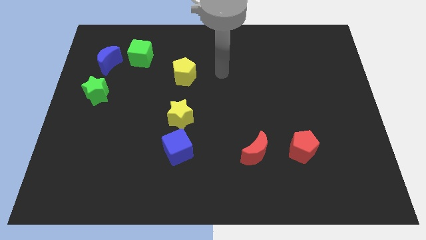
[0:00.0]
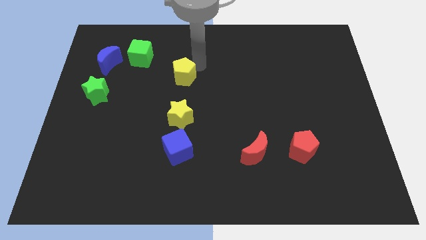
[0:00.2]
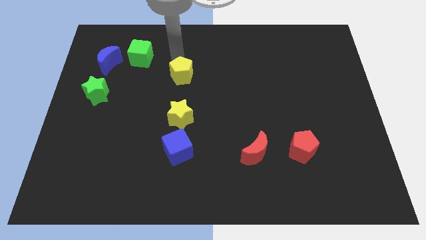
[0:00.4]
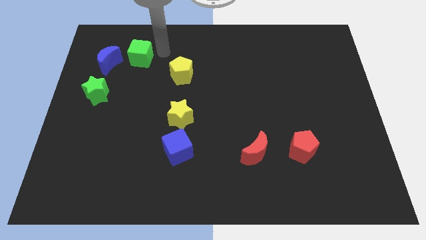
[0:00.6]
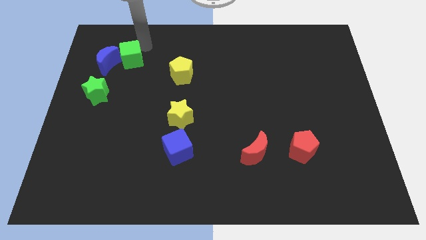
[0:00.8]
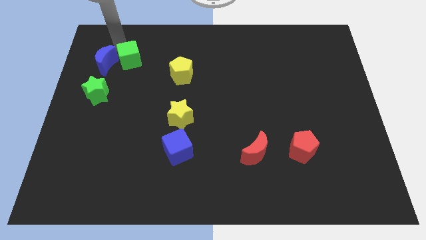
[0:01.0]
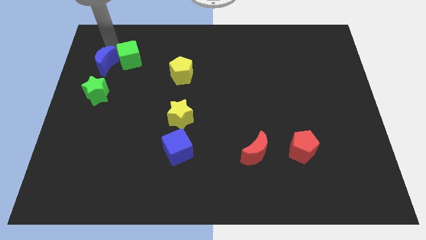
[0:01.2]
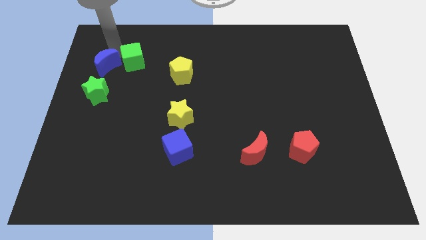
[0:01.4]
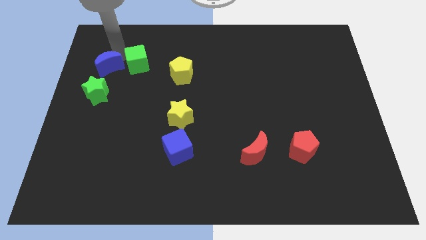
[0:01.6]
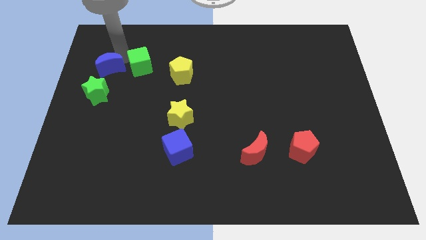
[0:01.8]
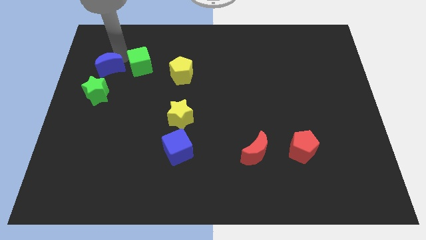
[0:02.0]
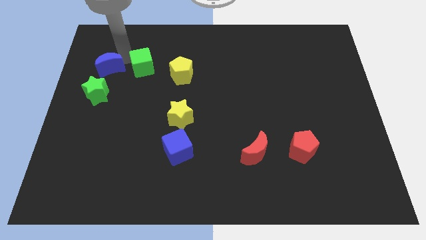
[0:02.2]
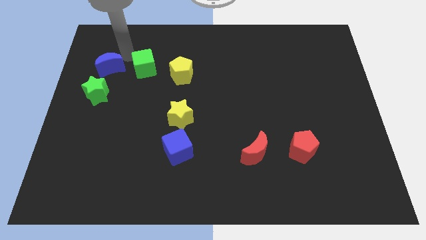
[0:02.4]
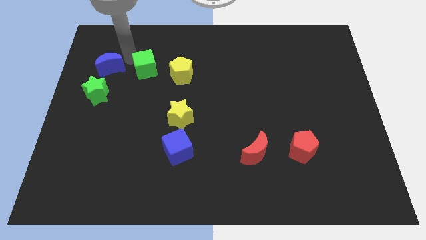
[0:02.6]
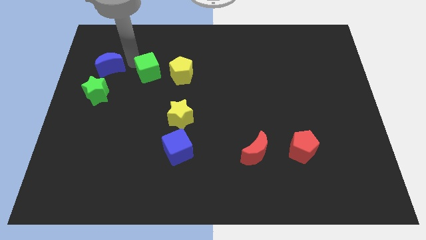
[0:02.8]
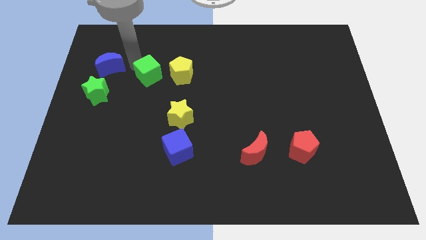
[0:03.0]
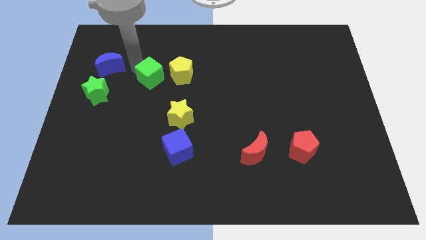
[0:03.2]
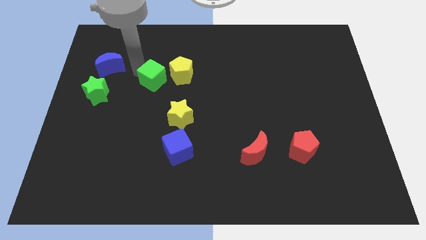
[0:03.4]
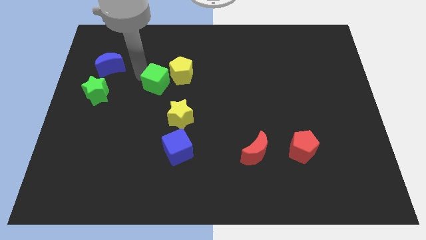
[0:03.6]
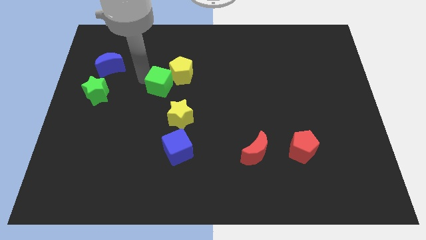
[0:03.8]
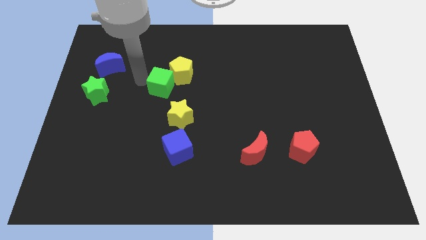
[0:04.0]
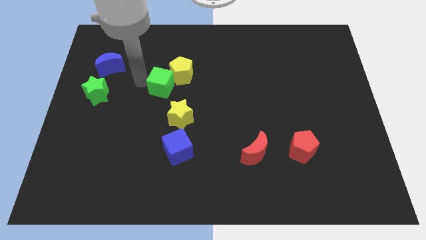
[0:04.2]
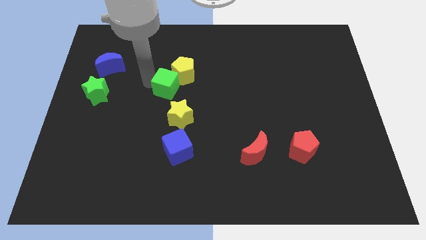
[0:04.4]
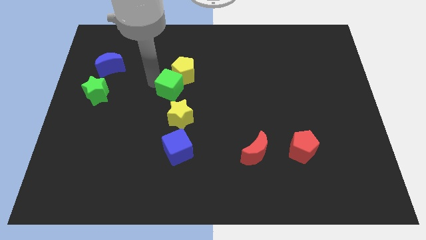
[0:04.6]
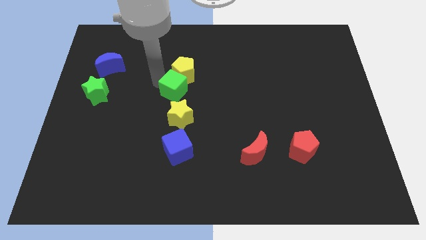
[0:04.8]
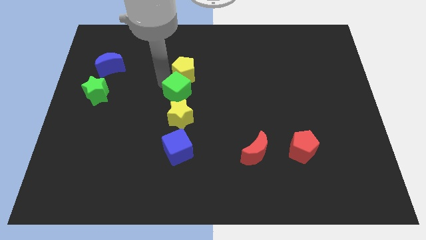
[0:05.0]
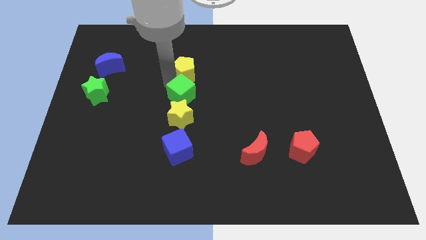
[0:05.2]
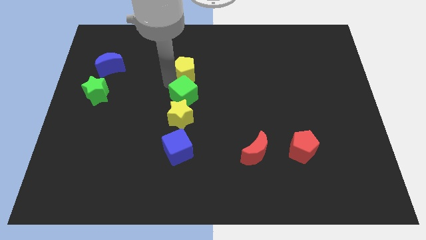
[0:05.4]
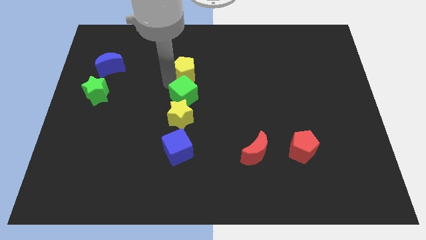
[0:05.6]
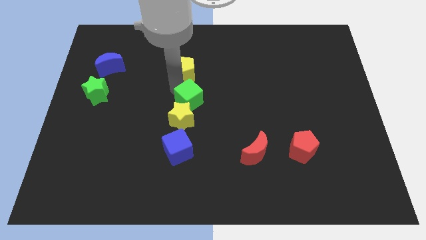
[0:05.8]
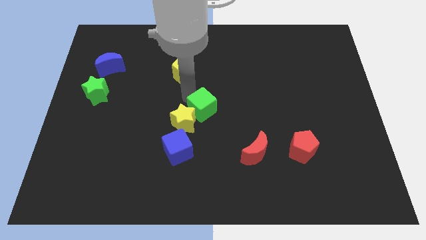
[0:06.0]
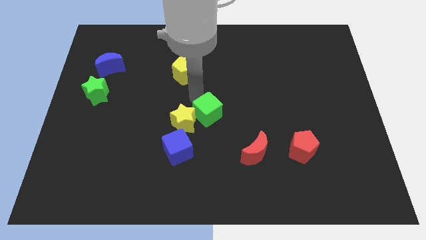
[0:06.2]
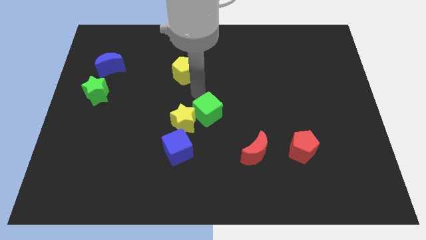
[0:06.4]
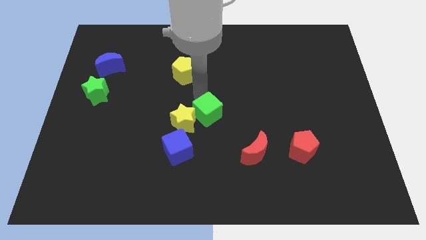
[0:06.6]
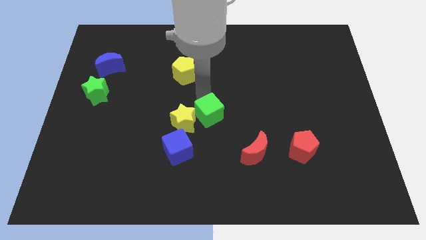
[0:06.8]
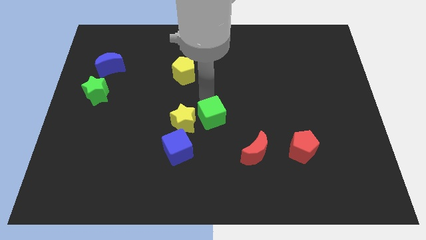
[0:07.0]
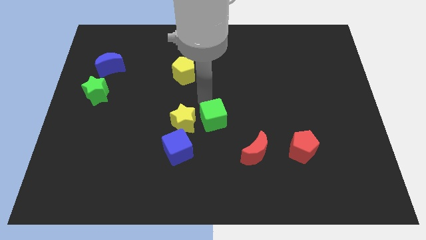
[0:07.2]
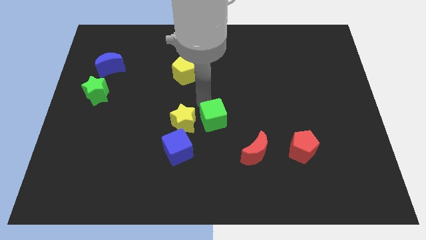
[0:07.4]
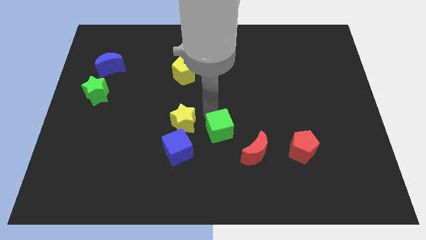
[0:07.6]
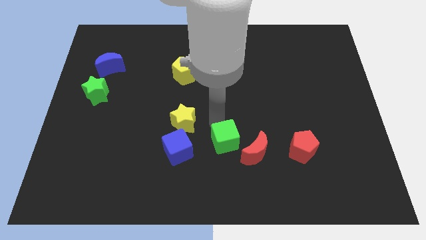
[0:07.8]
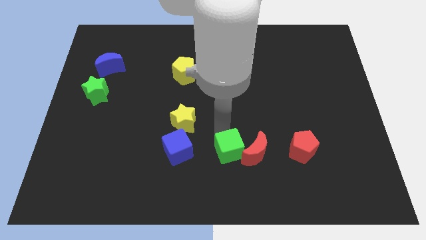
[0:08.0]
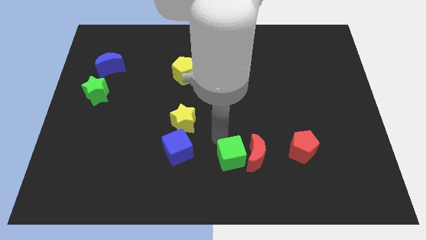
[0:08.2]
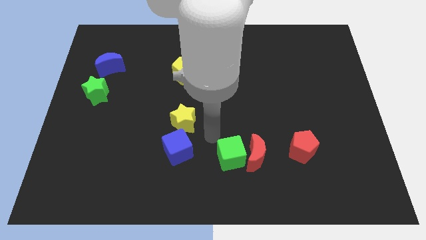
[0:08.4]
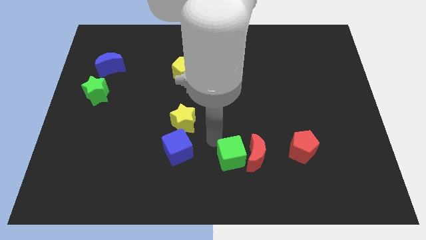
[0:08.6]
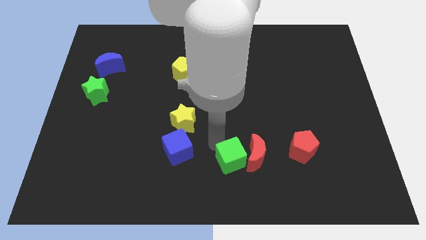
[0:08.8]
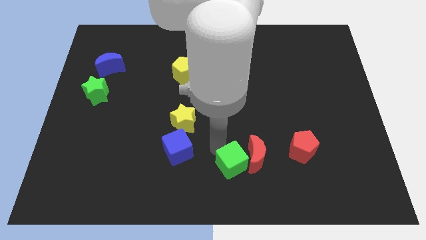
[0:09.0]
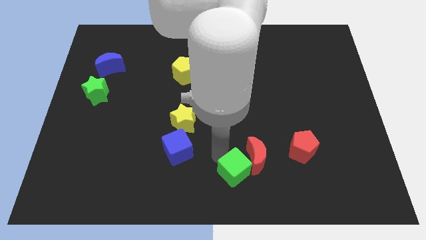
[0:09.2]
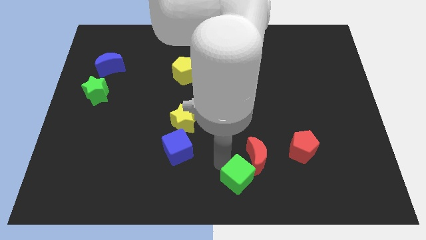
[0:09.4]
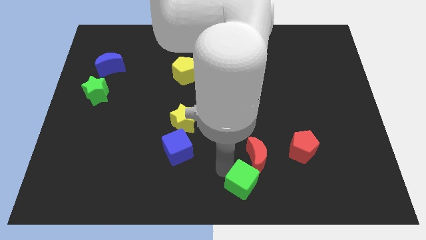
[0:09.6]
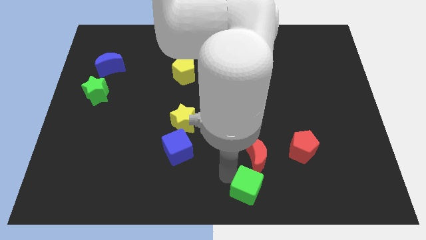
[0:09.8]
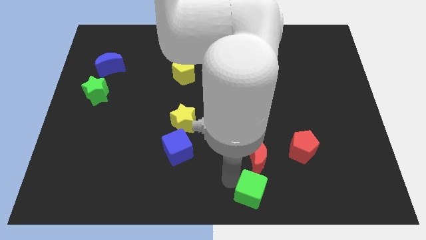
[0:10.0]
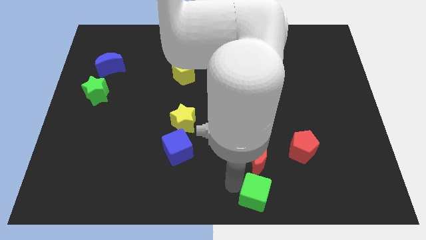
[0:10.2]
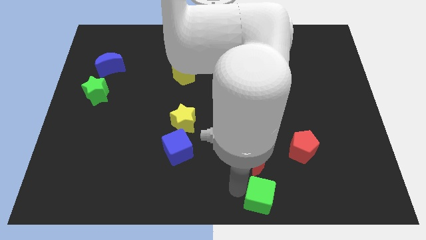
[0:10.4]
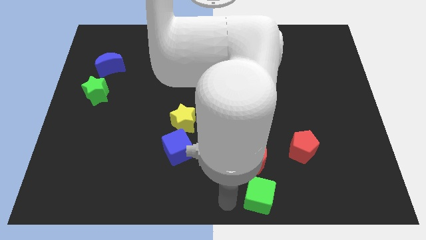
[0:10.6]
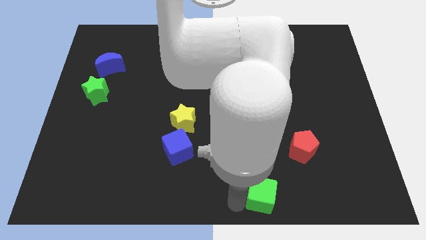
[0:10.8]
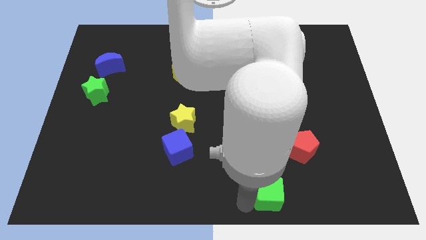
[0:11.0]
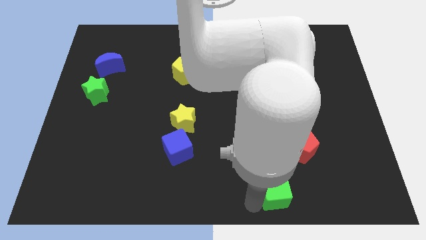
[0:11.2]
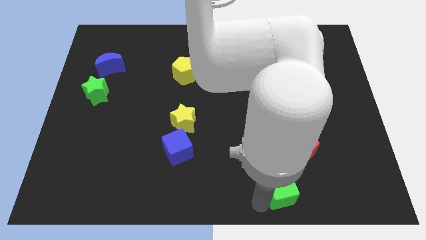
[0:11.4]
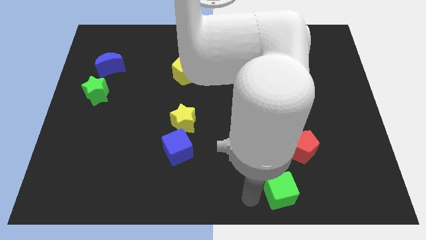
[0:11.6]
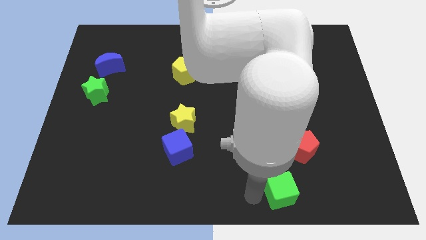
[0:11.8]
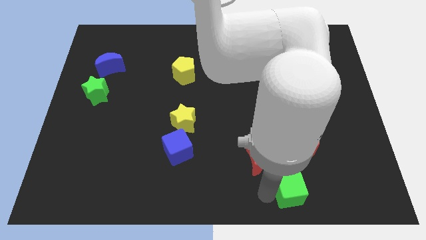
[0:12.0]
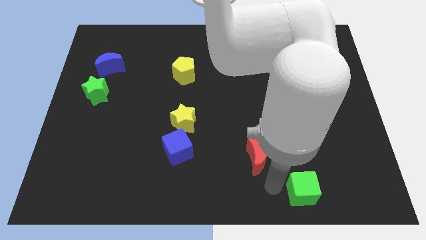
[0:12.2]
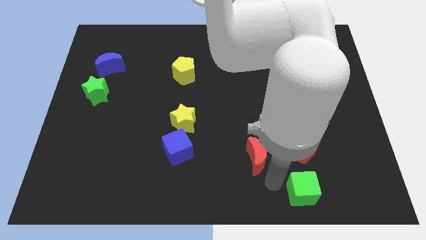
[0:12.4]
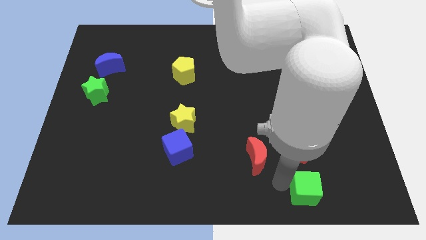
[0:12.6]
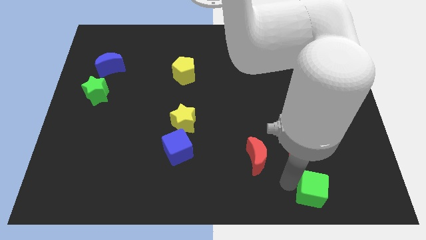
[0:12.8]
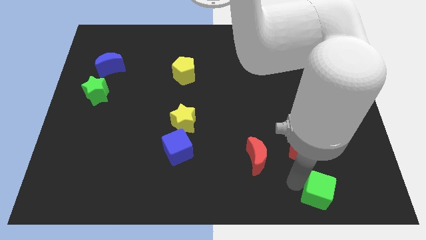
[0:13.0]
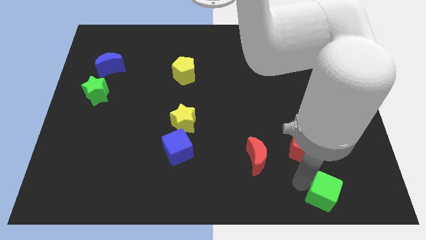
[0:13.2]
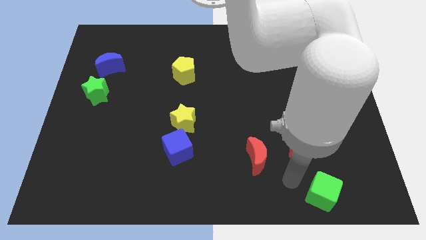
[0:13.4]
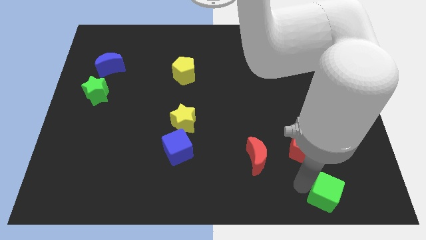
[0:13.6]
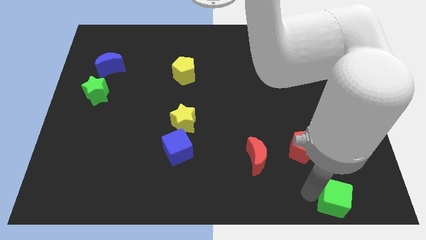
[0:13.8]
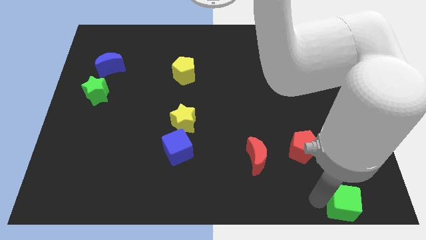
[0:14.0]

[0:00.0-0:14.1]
push the green cube to the bottom right
